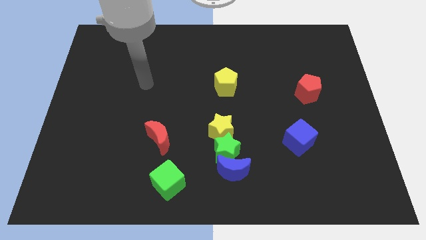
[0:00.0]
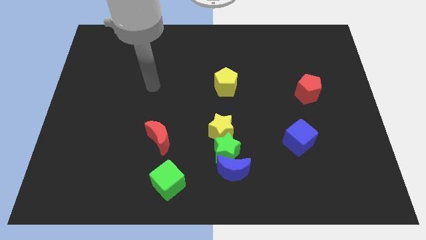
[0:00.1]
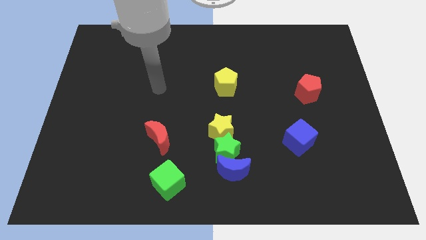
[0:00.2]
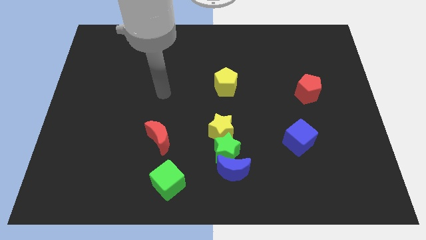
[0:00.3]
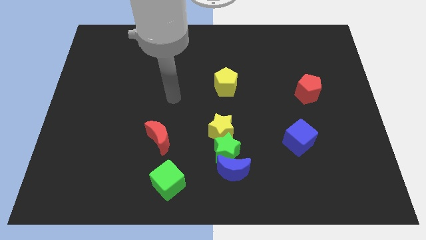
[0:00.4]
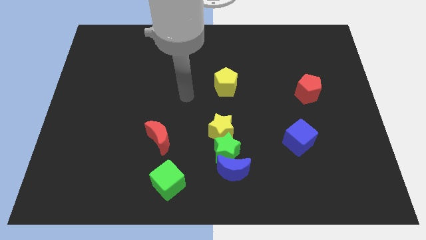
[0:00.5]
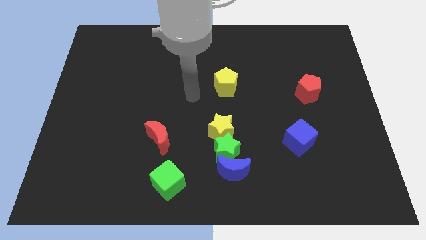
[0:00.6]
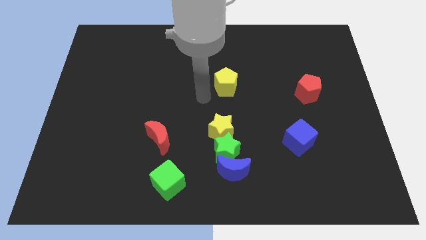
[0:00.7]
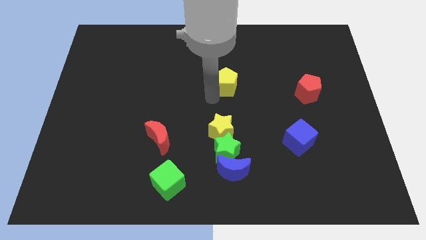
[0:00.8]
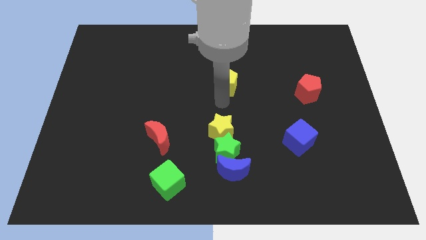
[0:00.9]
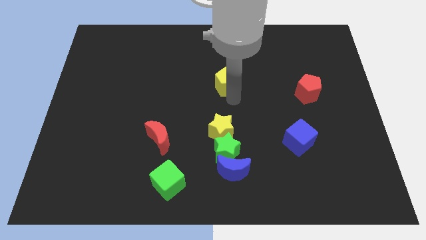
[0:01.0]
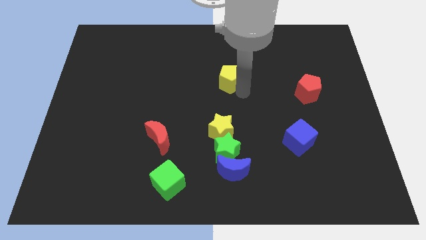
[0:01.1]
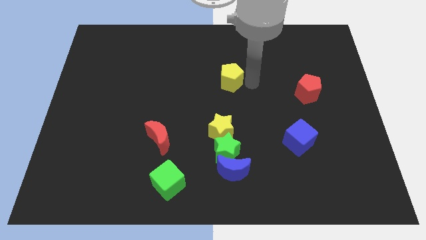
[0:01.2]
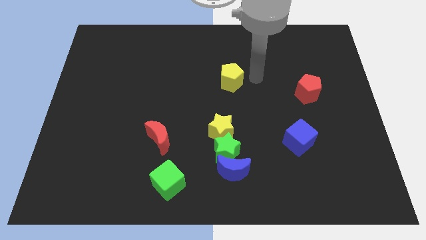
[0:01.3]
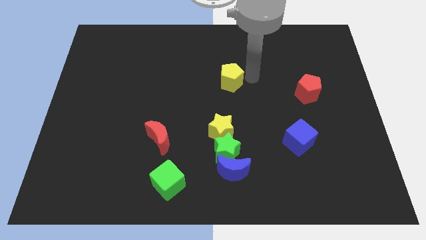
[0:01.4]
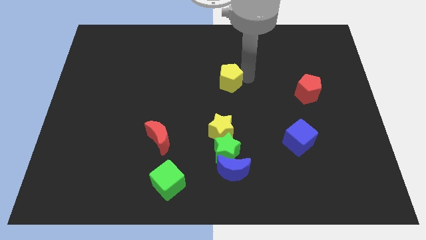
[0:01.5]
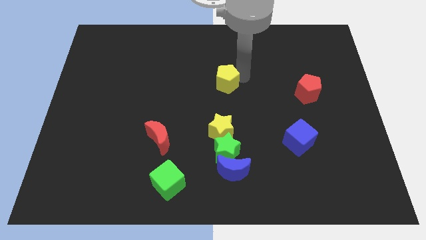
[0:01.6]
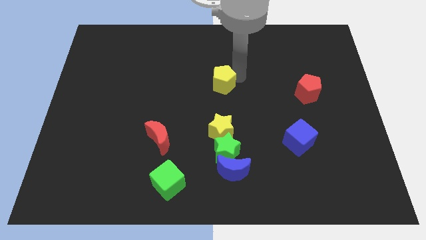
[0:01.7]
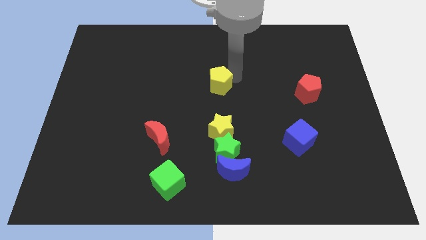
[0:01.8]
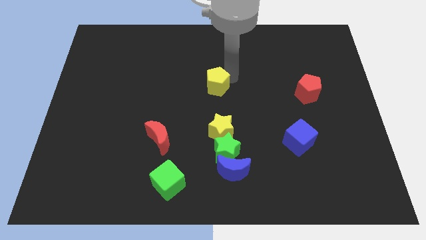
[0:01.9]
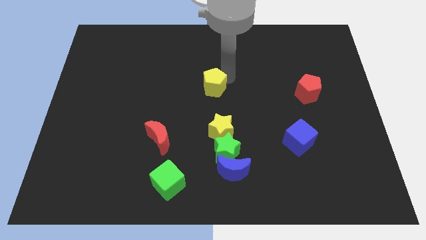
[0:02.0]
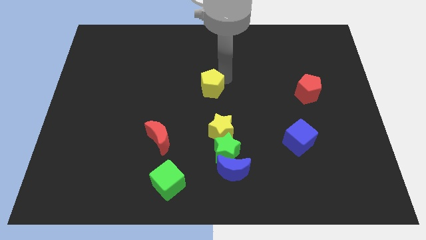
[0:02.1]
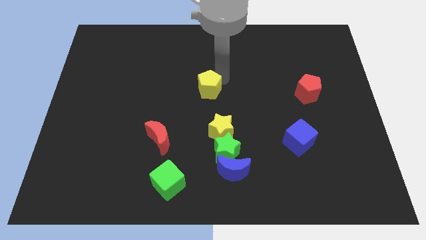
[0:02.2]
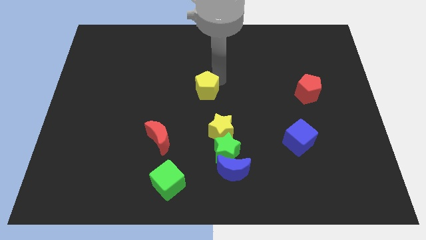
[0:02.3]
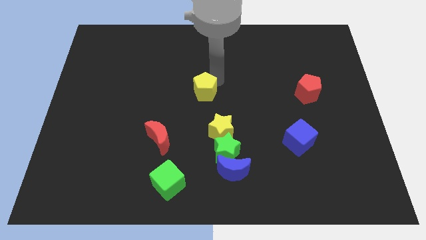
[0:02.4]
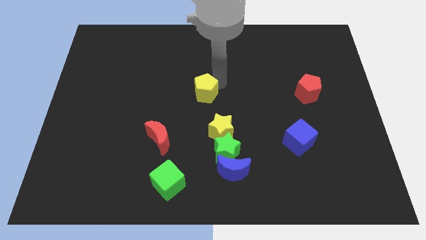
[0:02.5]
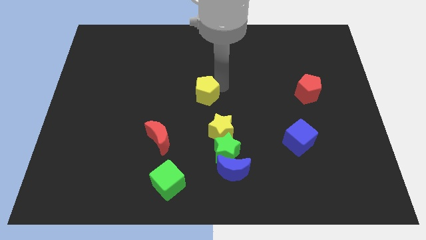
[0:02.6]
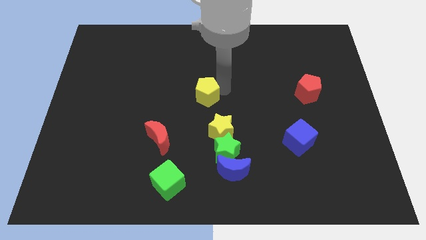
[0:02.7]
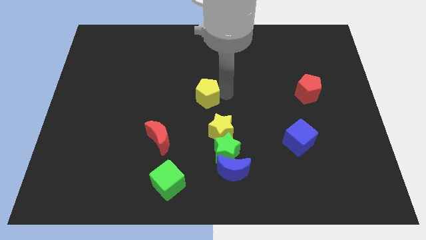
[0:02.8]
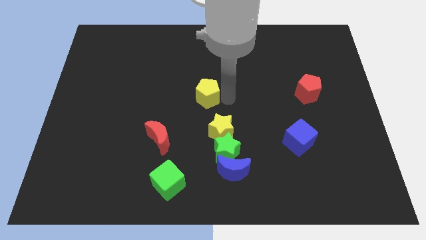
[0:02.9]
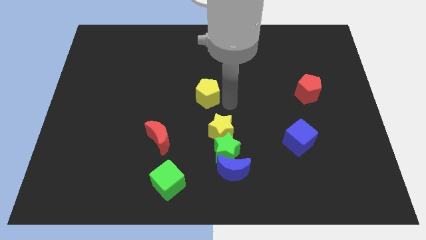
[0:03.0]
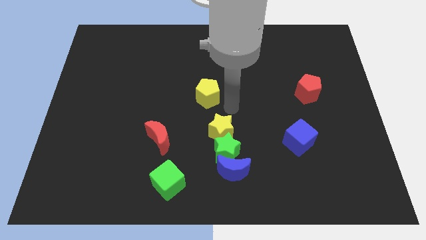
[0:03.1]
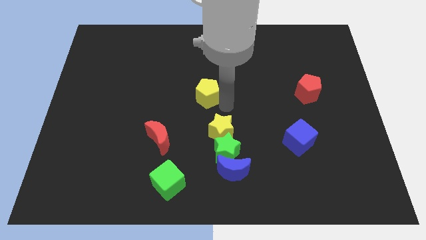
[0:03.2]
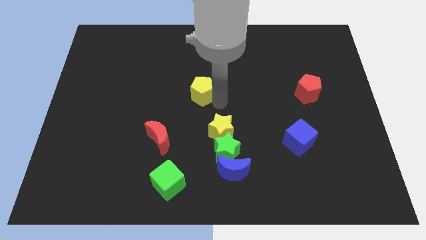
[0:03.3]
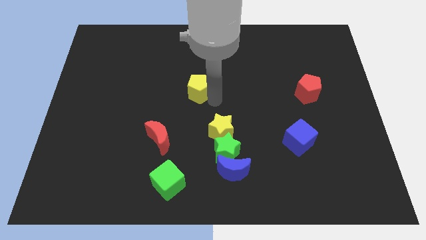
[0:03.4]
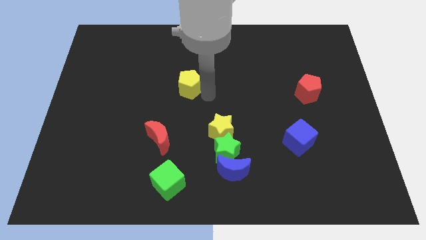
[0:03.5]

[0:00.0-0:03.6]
slide the yellow pentagon a little to the left

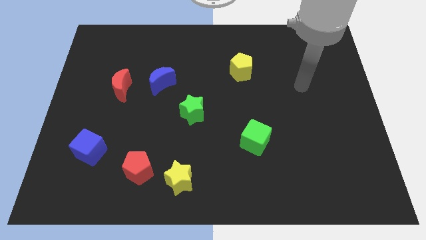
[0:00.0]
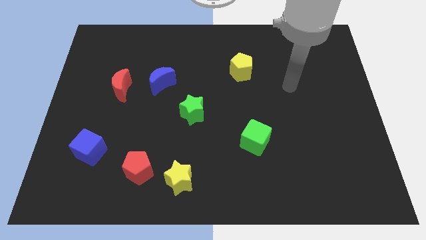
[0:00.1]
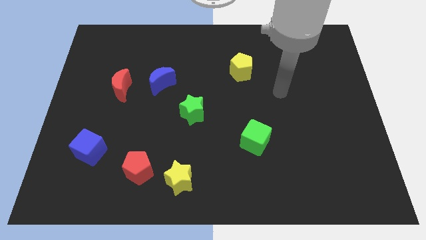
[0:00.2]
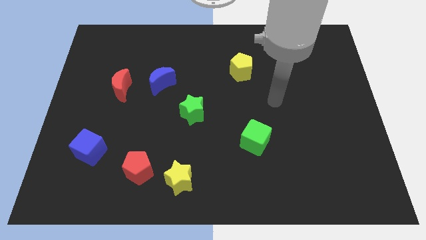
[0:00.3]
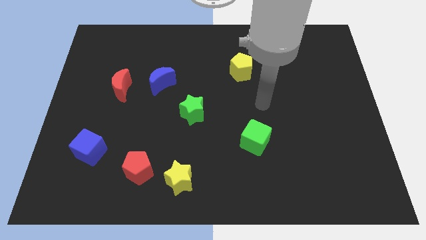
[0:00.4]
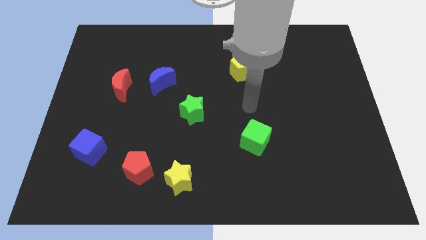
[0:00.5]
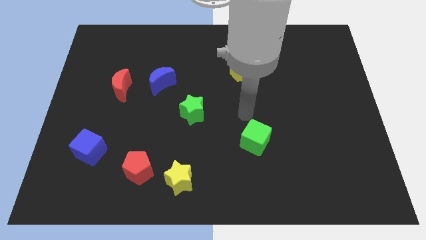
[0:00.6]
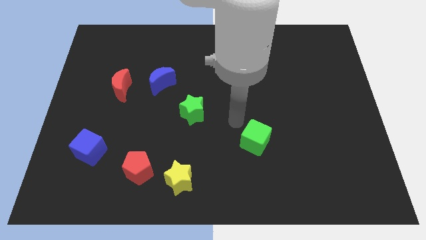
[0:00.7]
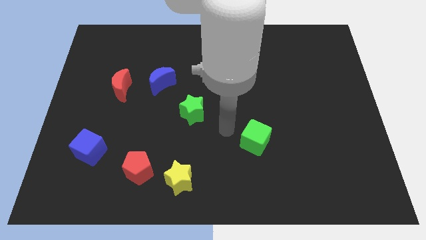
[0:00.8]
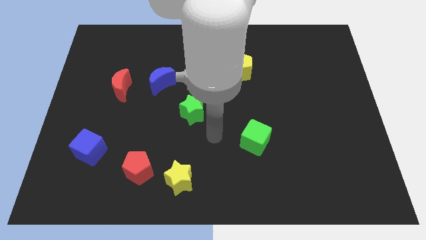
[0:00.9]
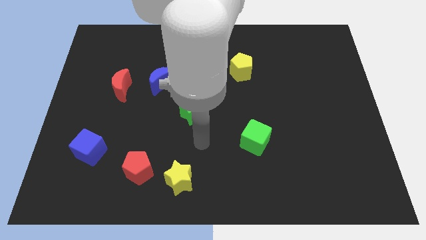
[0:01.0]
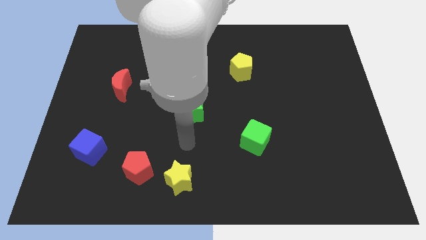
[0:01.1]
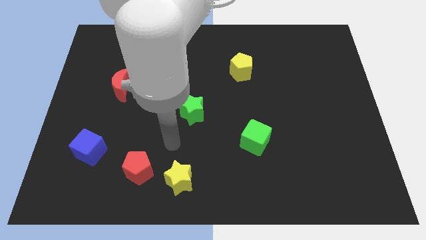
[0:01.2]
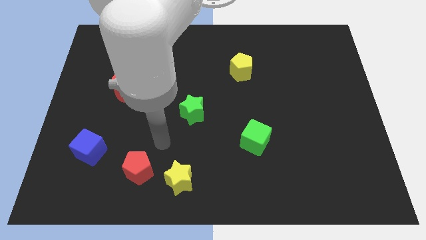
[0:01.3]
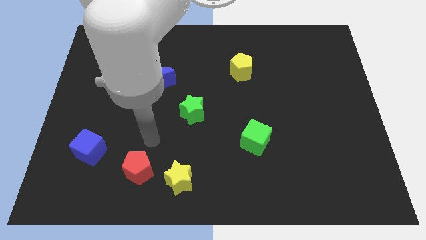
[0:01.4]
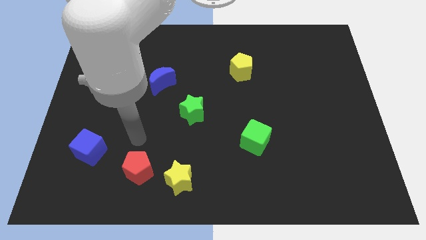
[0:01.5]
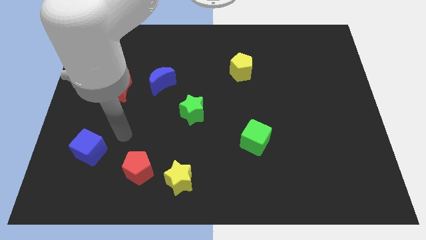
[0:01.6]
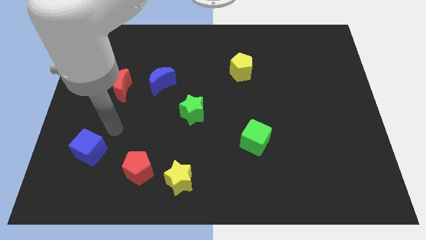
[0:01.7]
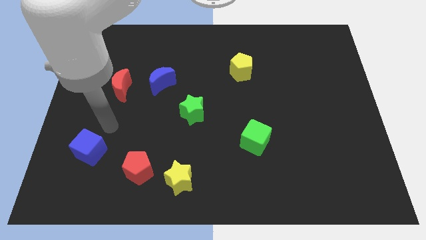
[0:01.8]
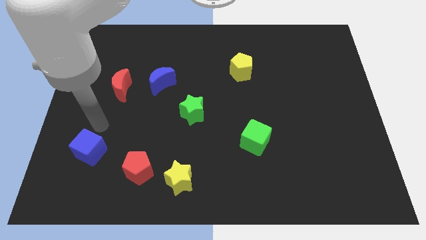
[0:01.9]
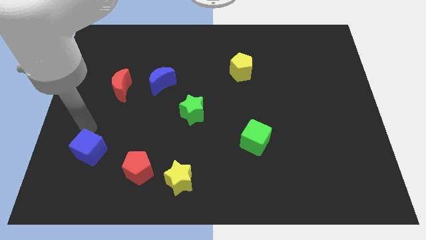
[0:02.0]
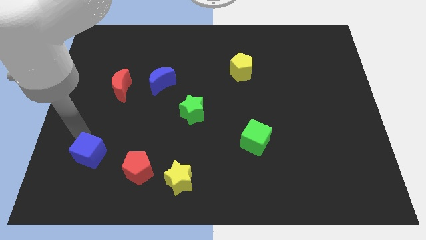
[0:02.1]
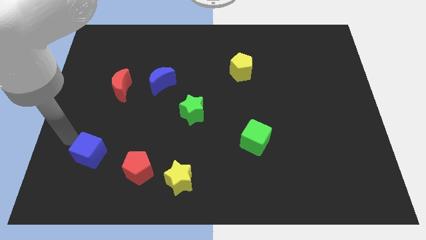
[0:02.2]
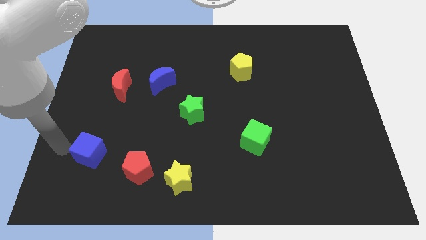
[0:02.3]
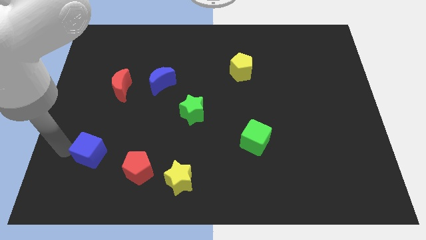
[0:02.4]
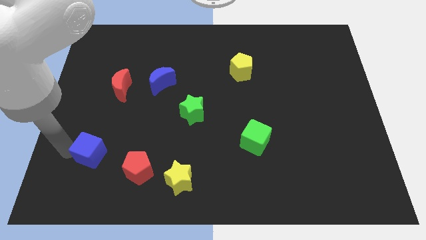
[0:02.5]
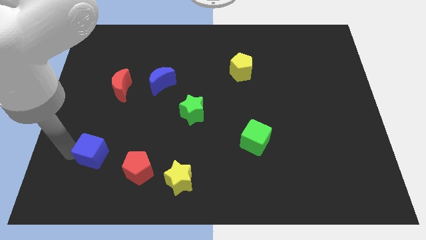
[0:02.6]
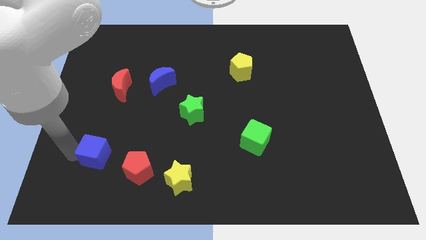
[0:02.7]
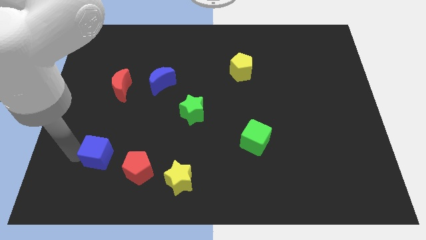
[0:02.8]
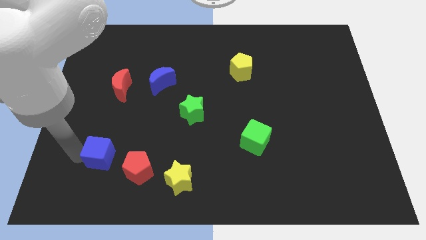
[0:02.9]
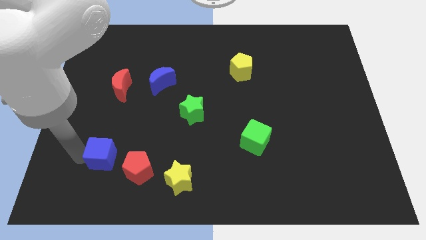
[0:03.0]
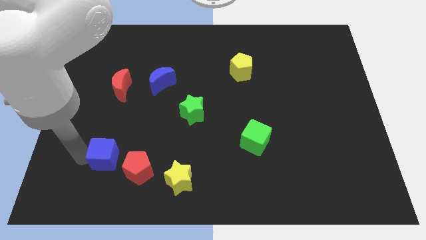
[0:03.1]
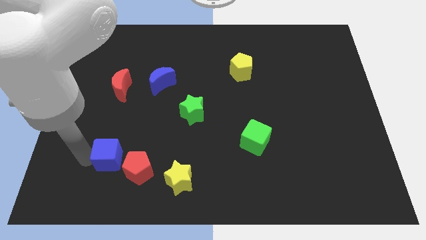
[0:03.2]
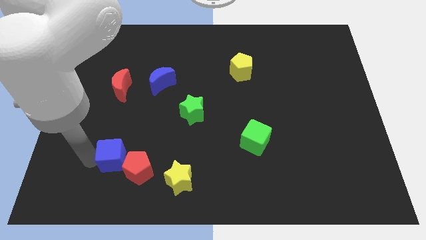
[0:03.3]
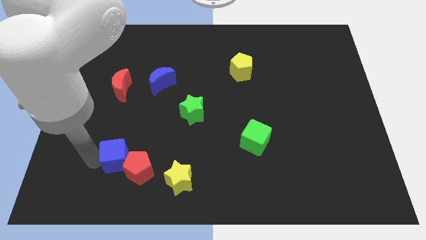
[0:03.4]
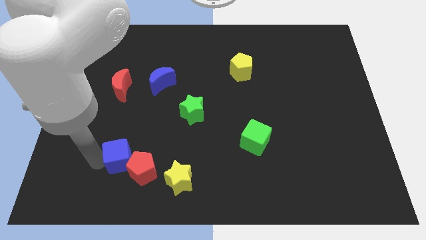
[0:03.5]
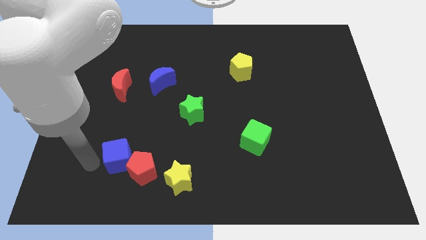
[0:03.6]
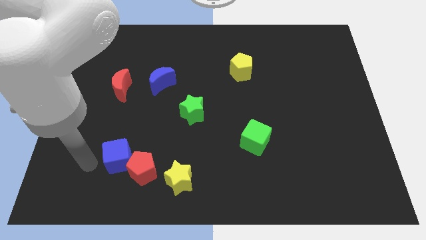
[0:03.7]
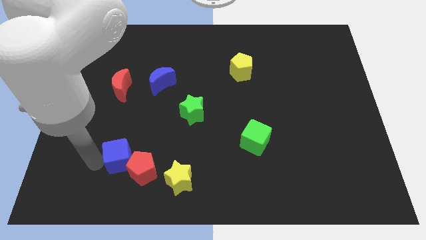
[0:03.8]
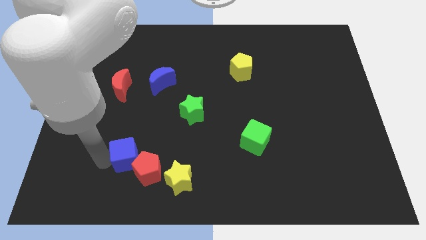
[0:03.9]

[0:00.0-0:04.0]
slide the blue cube a little to the right

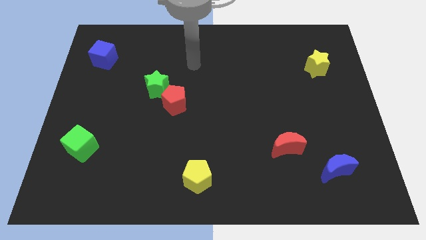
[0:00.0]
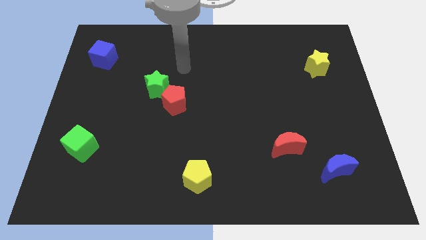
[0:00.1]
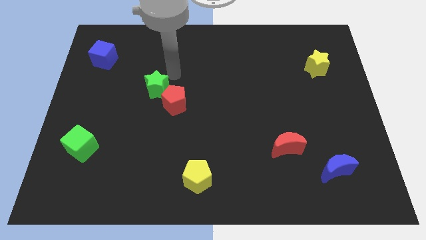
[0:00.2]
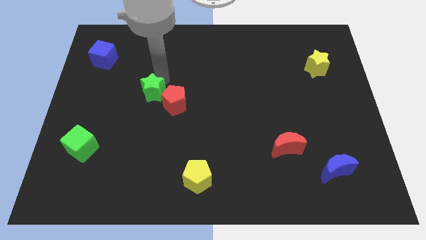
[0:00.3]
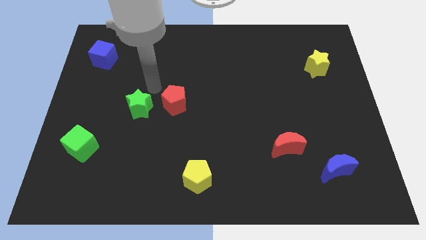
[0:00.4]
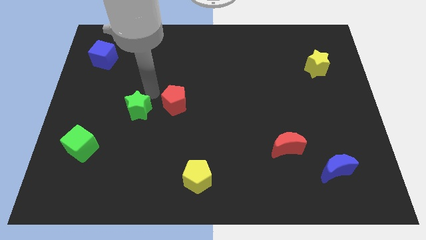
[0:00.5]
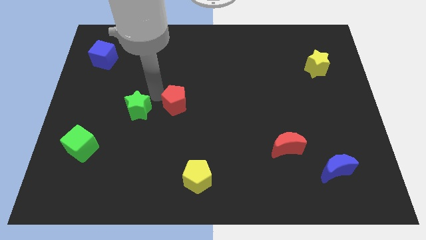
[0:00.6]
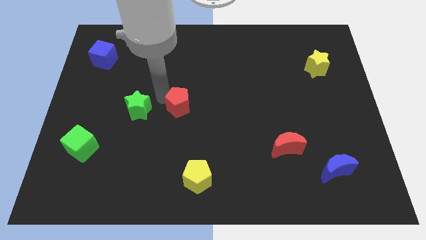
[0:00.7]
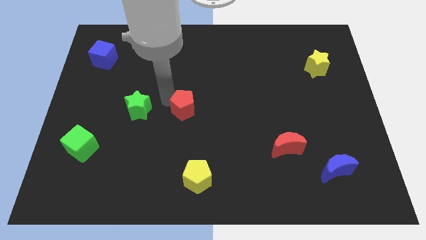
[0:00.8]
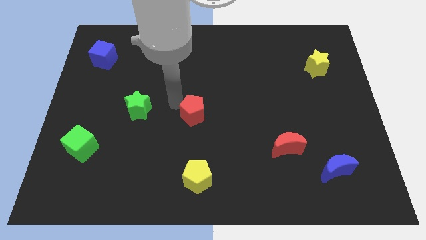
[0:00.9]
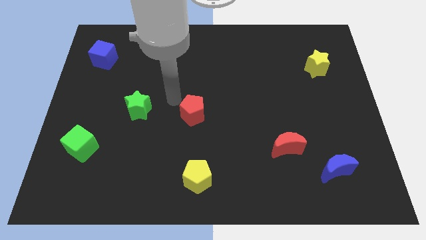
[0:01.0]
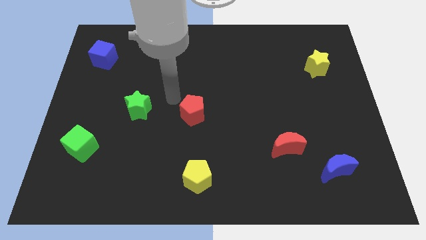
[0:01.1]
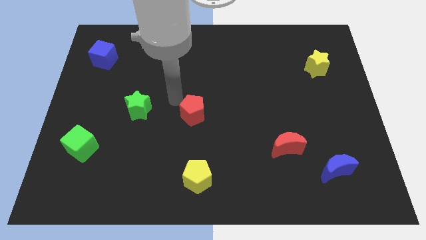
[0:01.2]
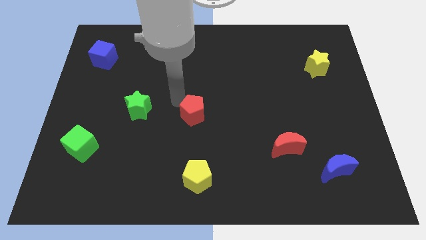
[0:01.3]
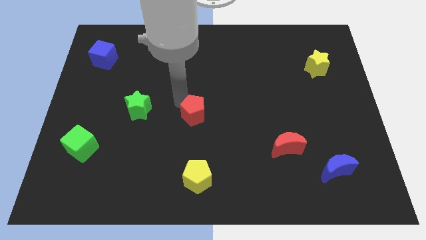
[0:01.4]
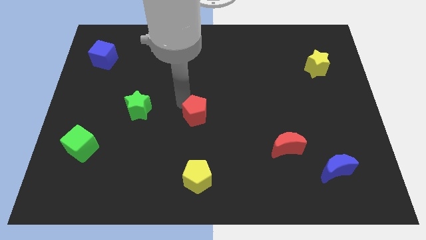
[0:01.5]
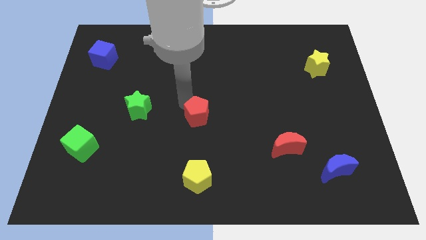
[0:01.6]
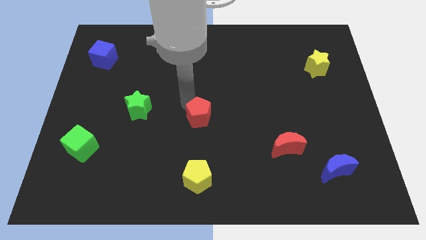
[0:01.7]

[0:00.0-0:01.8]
slide the red pentagon downwards and right slightly
